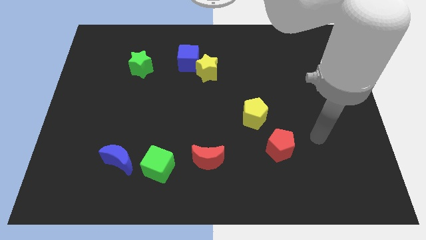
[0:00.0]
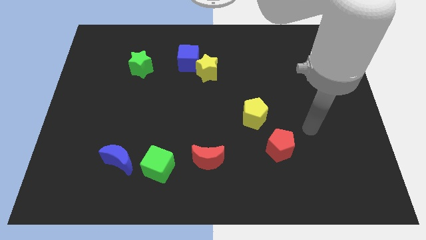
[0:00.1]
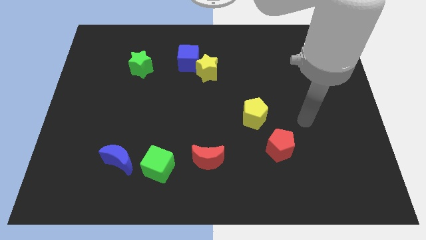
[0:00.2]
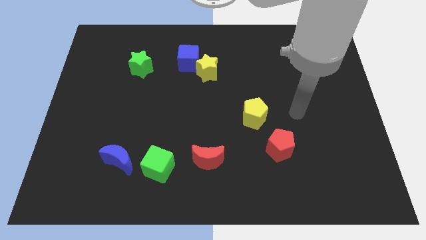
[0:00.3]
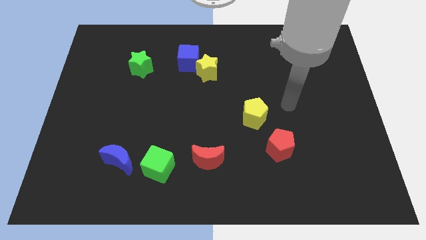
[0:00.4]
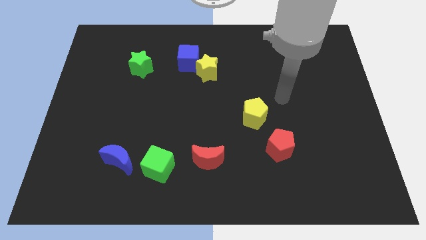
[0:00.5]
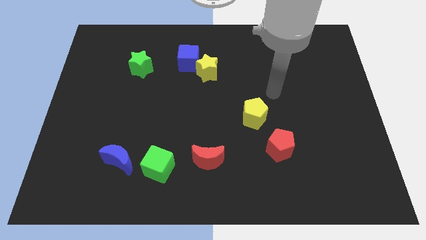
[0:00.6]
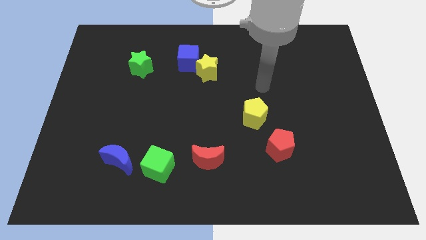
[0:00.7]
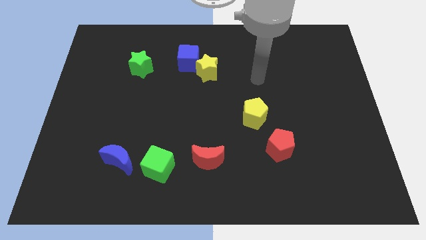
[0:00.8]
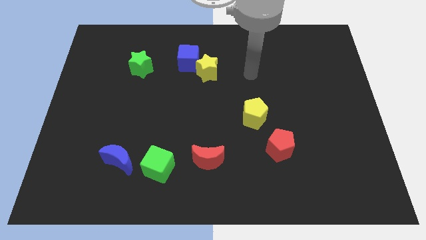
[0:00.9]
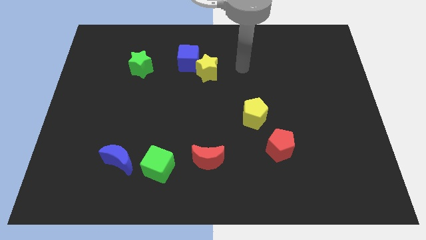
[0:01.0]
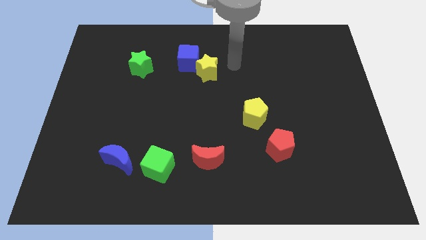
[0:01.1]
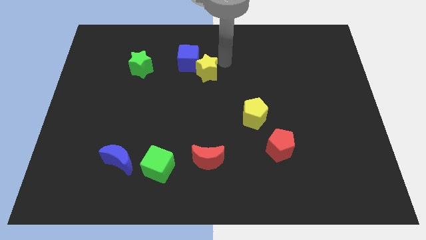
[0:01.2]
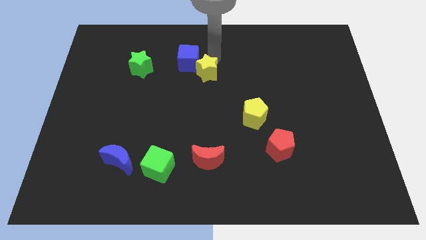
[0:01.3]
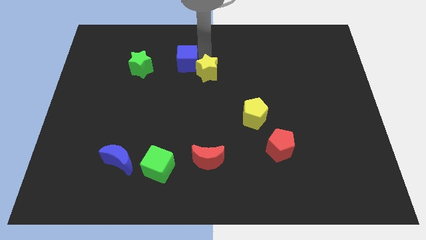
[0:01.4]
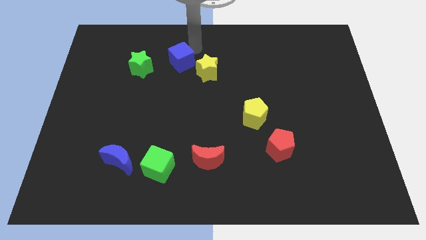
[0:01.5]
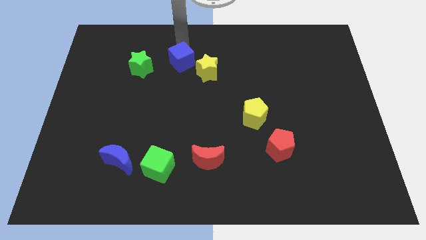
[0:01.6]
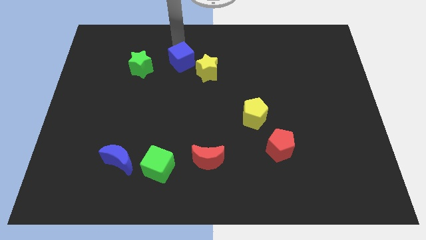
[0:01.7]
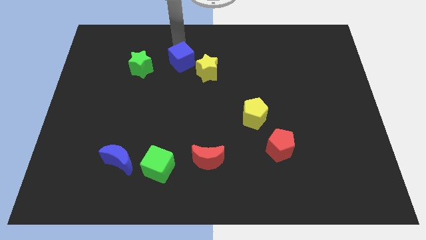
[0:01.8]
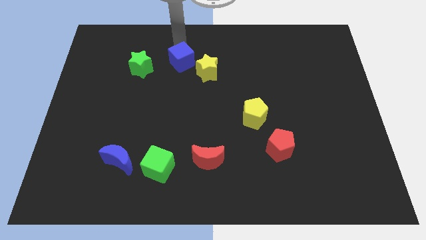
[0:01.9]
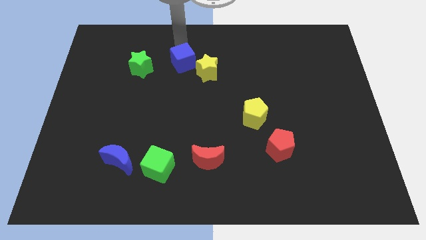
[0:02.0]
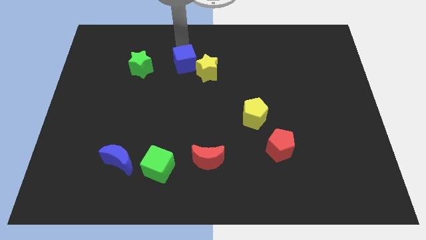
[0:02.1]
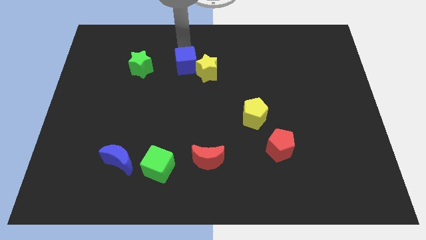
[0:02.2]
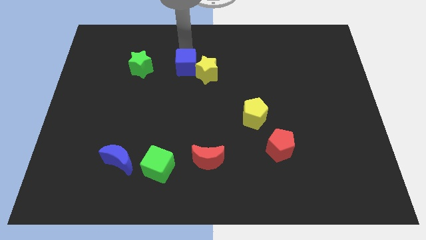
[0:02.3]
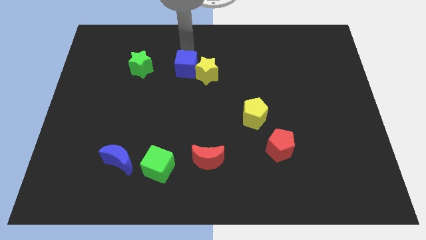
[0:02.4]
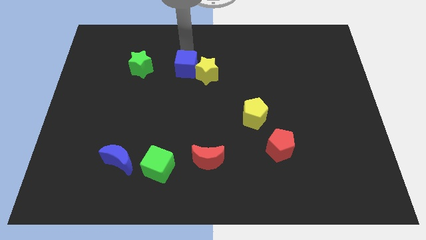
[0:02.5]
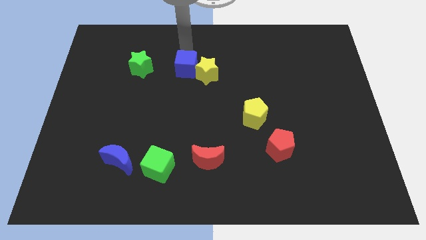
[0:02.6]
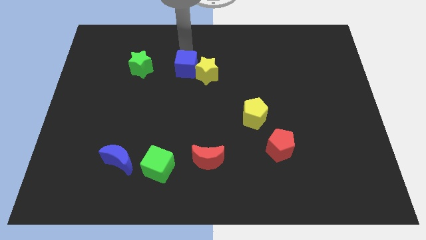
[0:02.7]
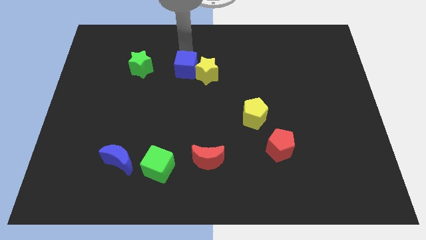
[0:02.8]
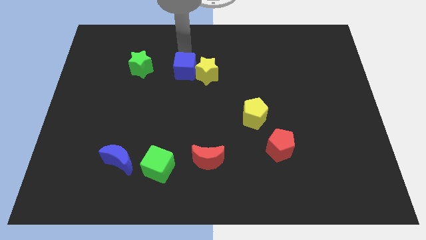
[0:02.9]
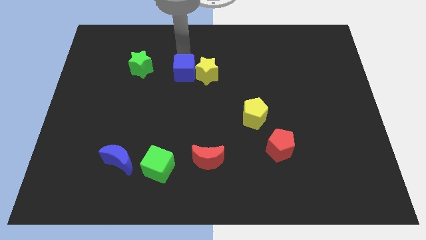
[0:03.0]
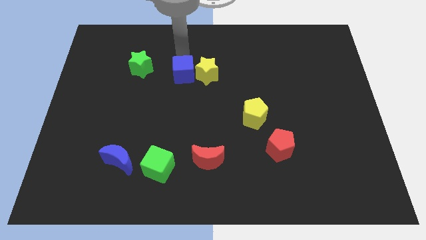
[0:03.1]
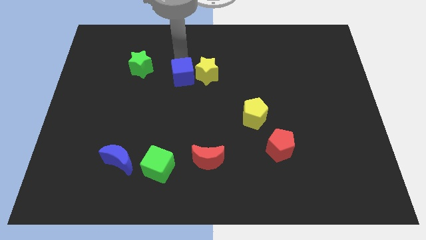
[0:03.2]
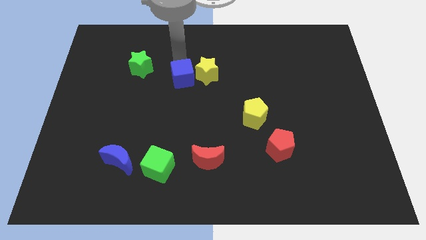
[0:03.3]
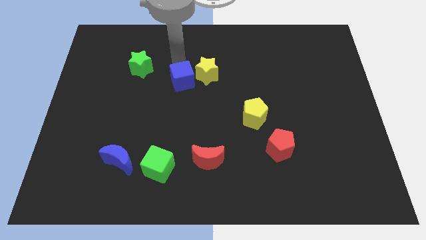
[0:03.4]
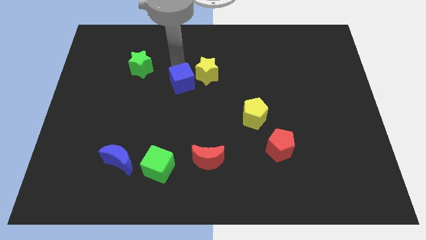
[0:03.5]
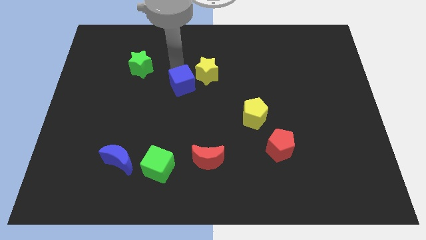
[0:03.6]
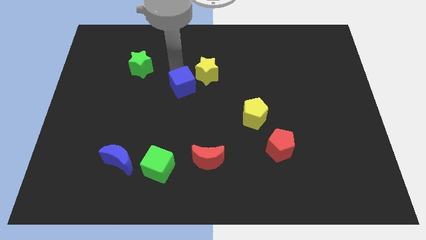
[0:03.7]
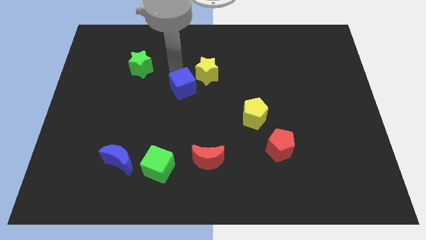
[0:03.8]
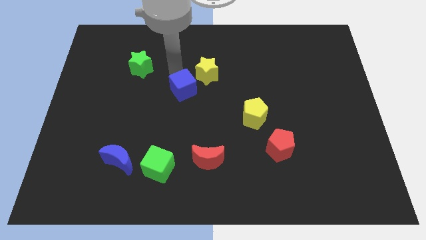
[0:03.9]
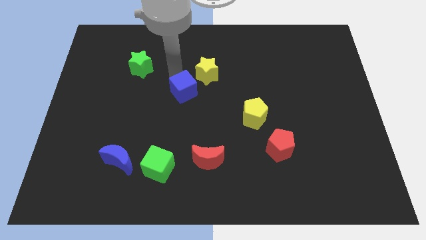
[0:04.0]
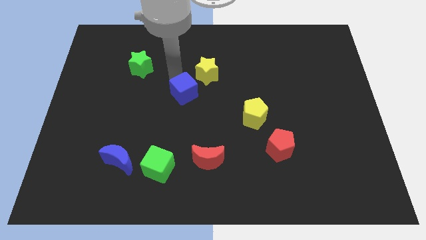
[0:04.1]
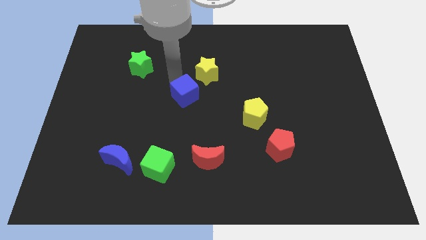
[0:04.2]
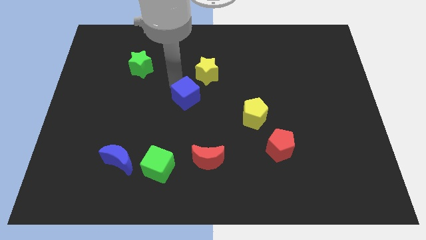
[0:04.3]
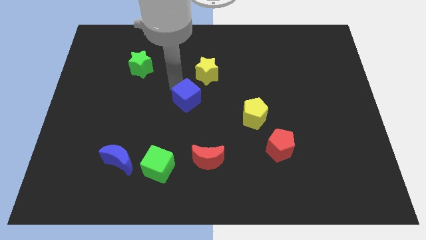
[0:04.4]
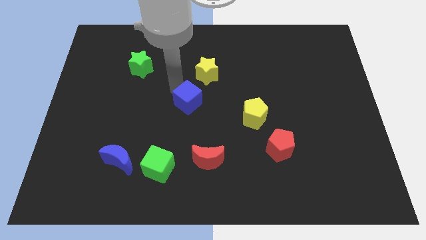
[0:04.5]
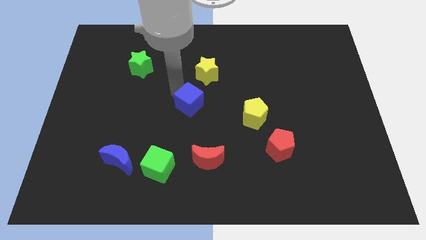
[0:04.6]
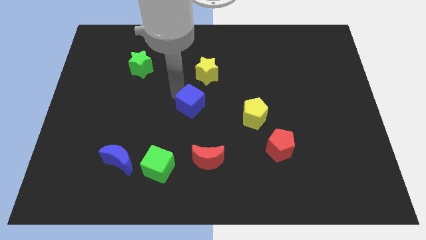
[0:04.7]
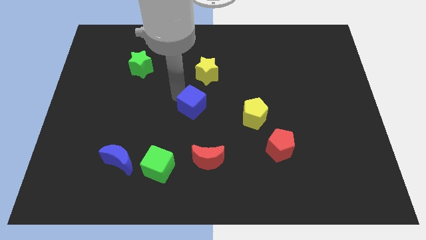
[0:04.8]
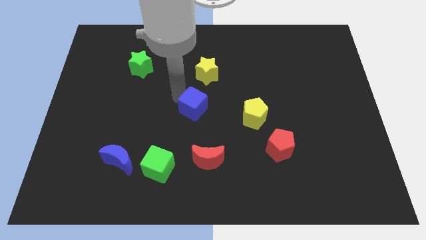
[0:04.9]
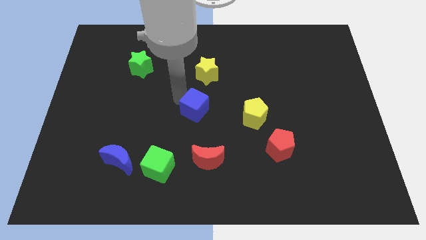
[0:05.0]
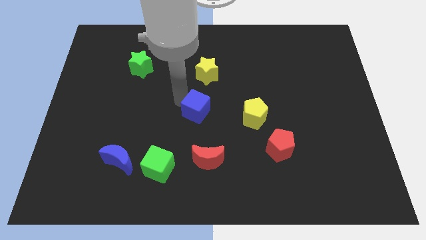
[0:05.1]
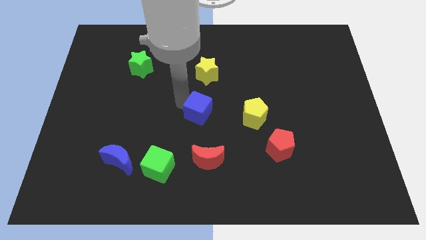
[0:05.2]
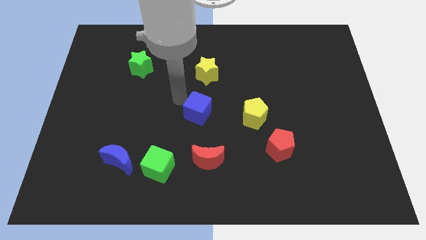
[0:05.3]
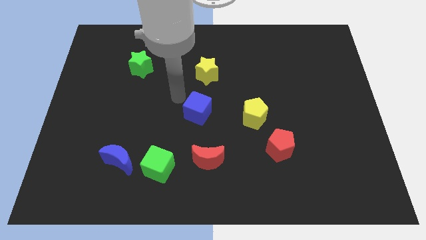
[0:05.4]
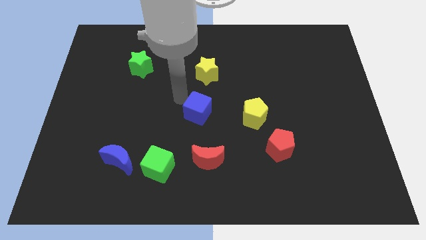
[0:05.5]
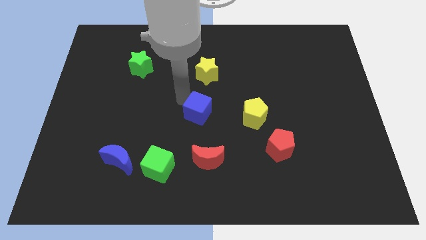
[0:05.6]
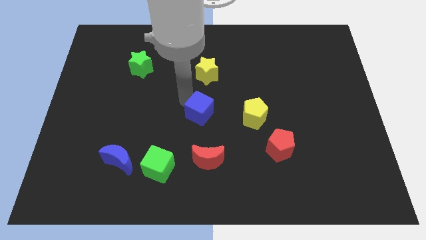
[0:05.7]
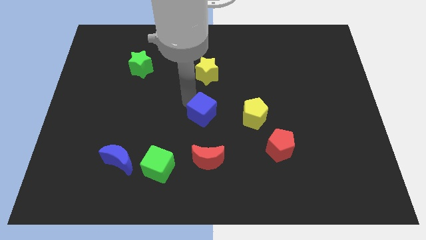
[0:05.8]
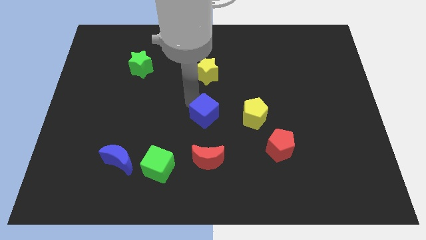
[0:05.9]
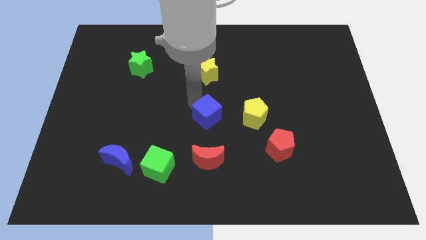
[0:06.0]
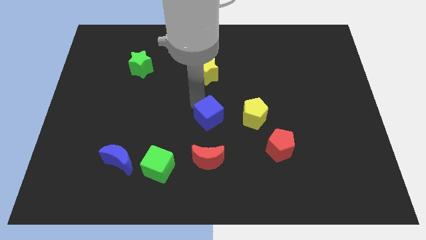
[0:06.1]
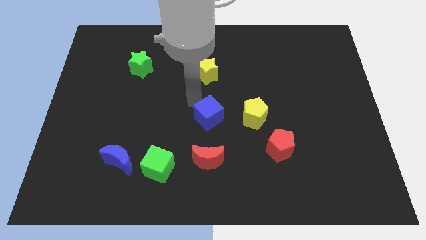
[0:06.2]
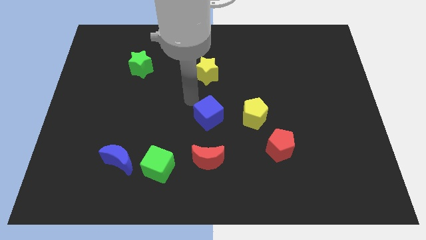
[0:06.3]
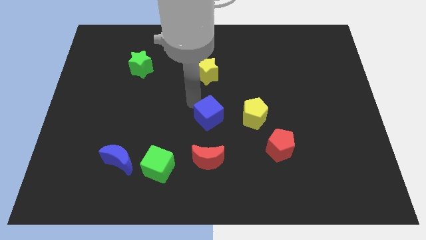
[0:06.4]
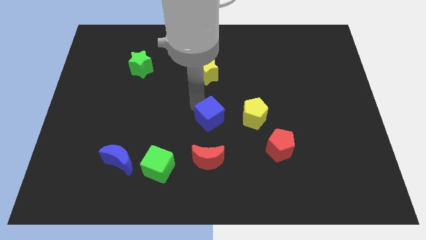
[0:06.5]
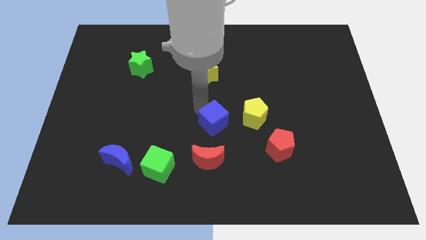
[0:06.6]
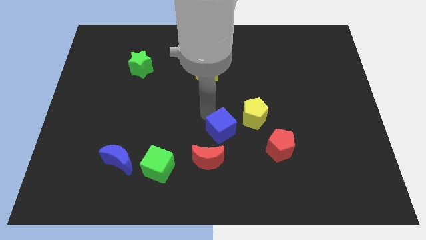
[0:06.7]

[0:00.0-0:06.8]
move the blue cube left of the red pentagon

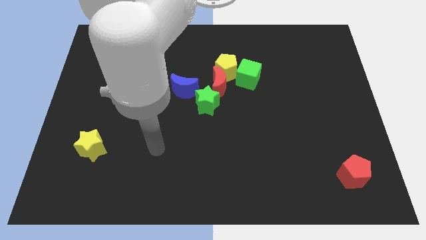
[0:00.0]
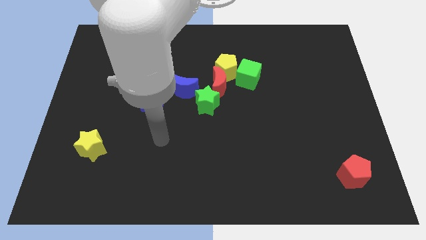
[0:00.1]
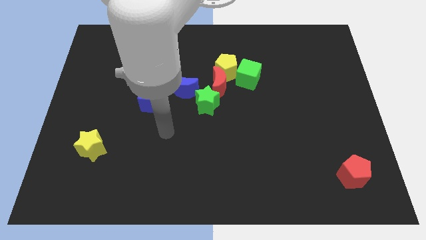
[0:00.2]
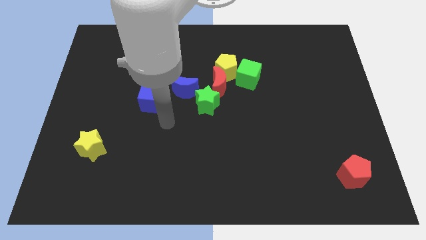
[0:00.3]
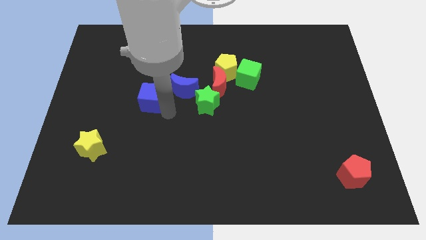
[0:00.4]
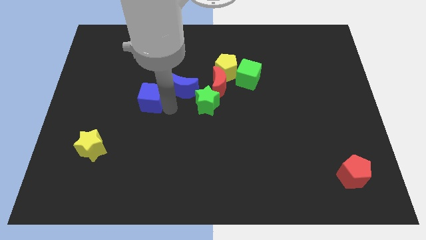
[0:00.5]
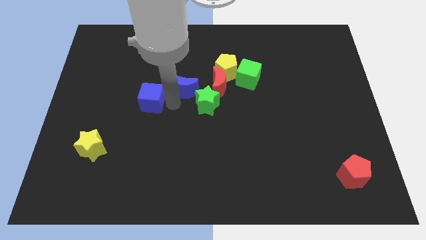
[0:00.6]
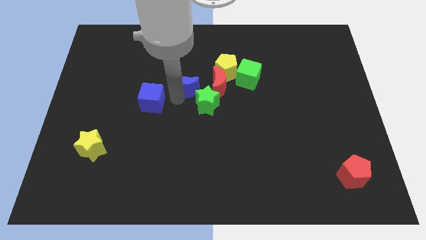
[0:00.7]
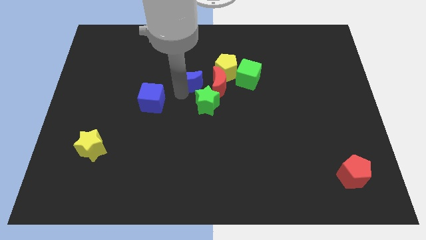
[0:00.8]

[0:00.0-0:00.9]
move the blue moon to the top left side of the red moon
